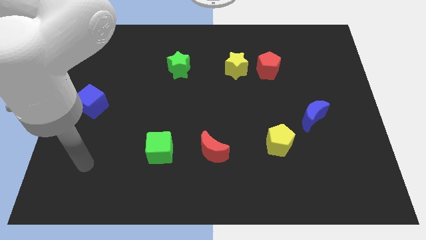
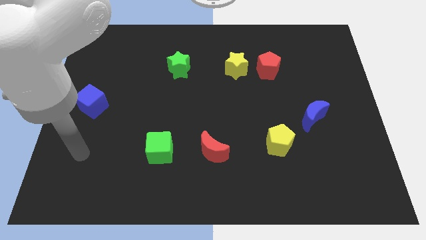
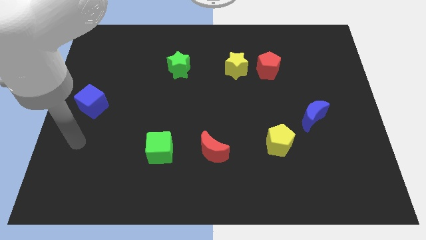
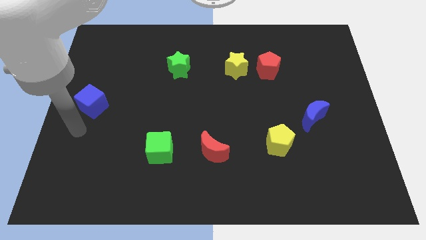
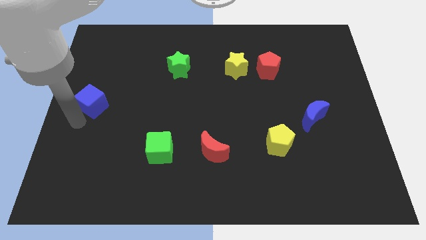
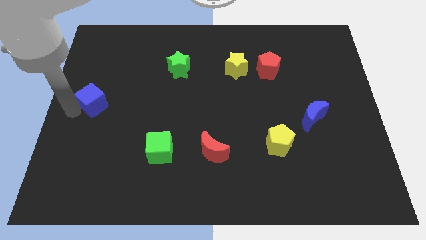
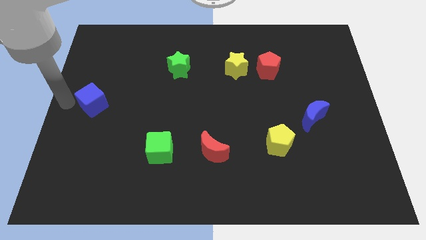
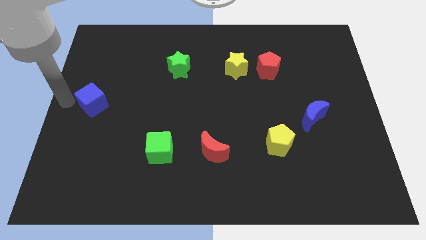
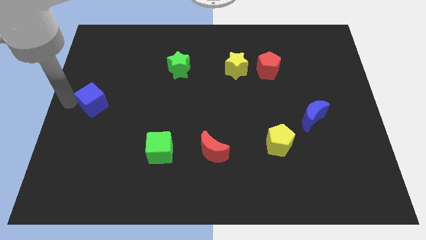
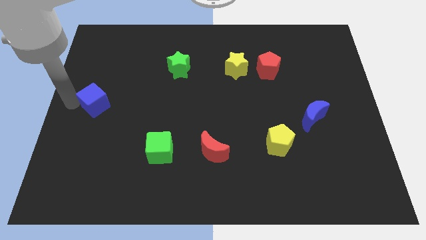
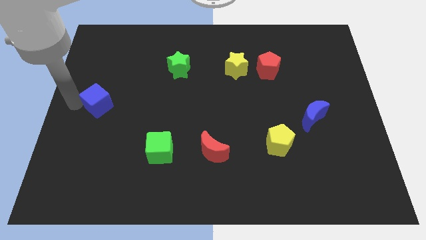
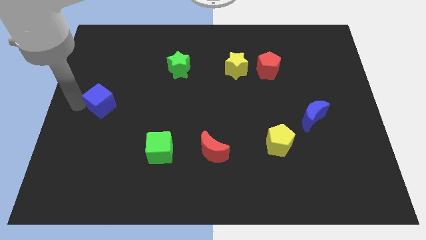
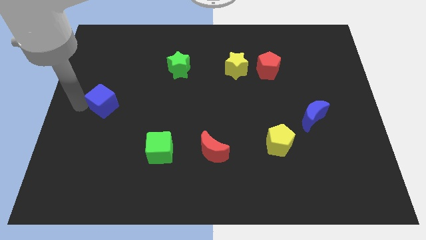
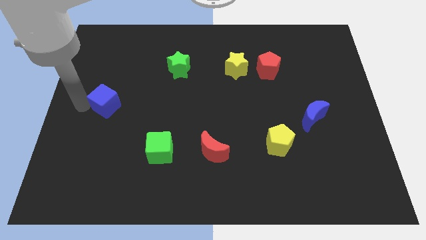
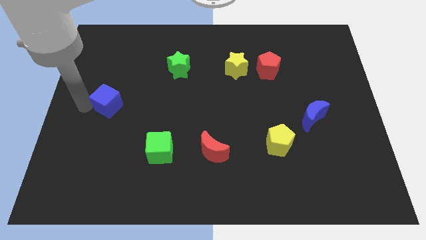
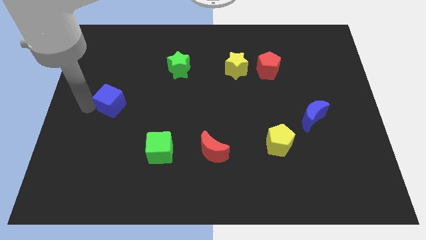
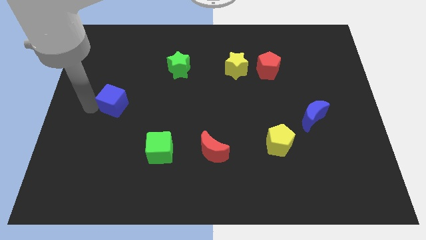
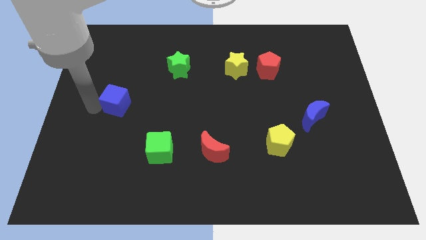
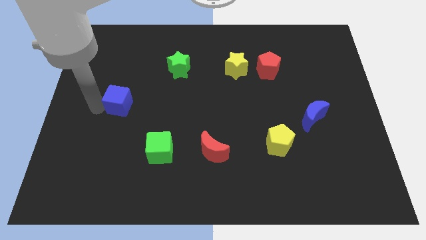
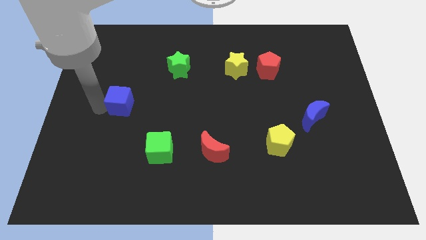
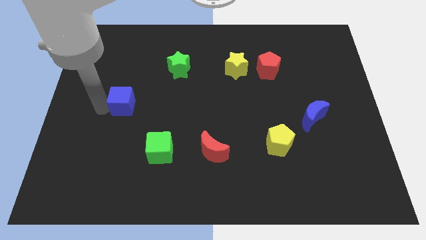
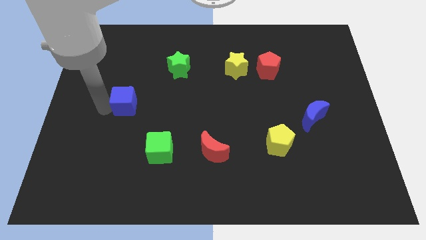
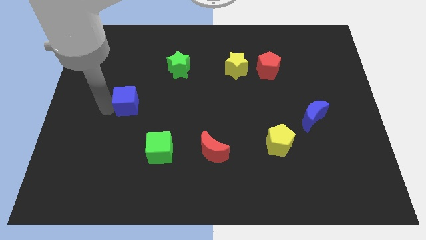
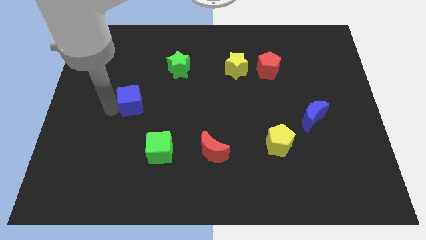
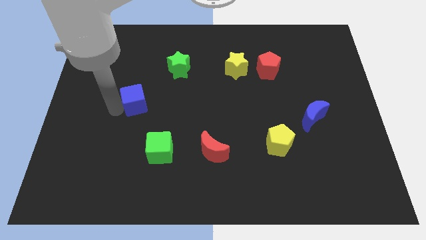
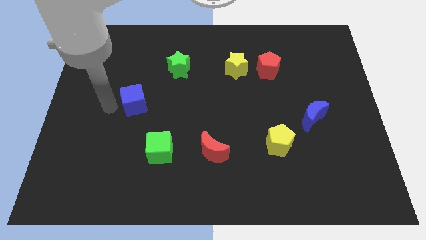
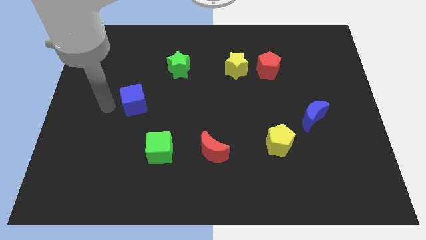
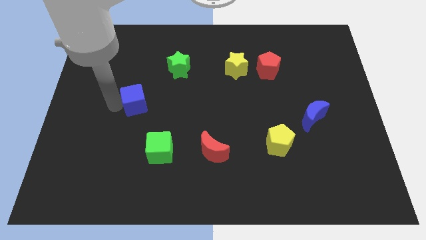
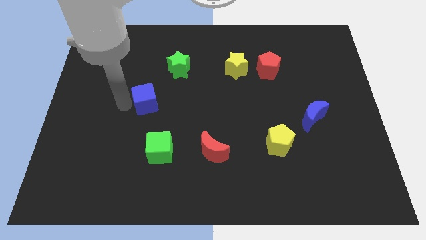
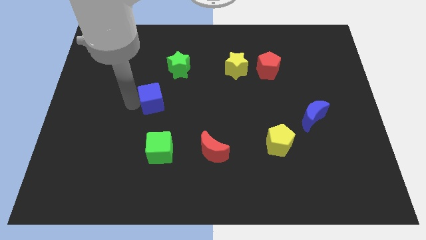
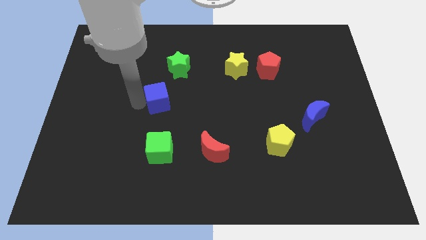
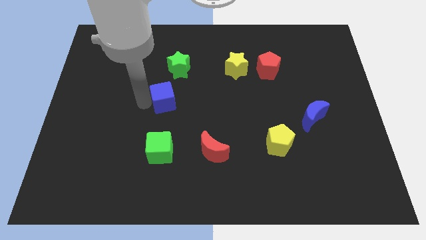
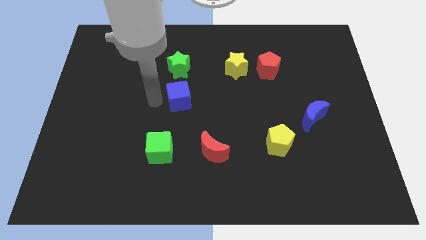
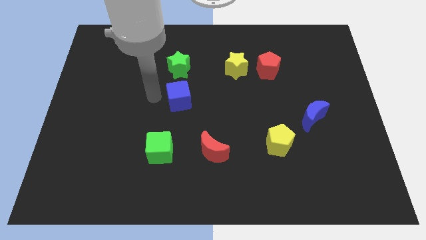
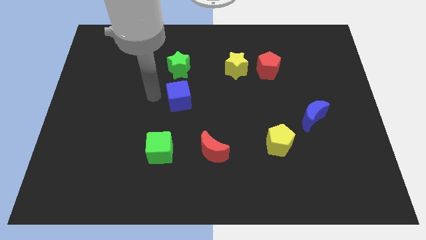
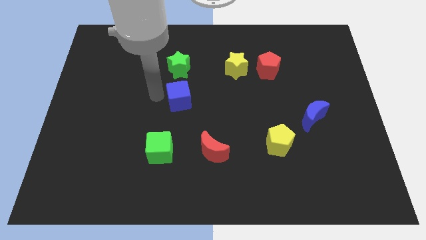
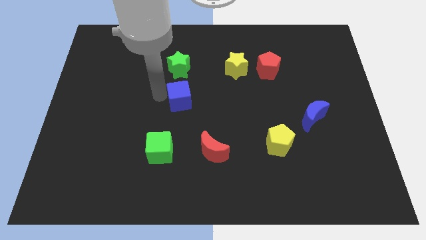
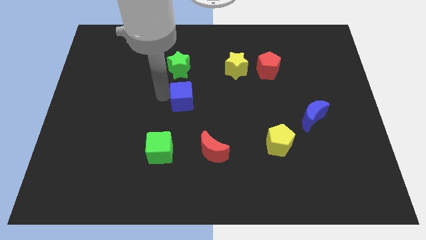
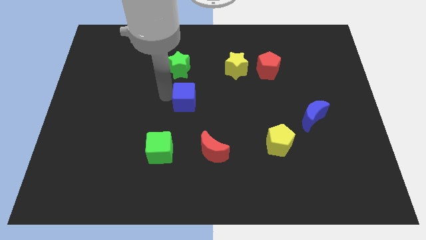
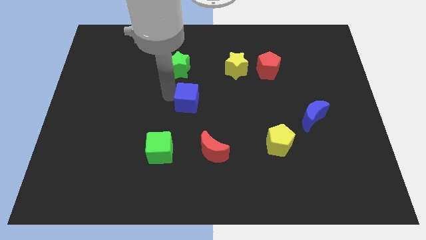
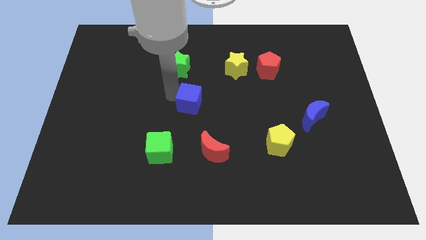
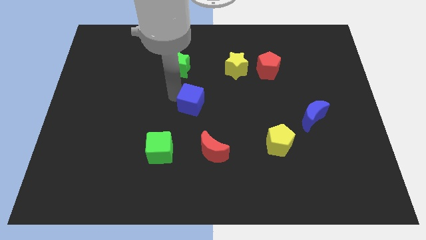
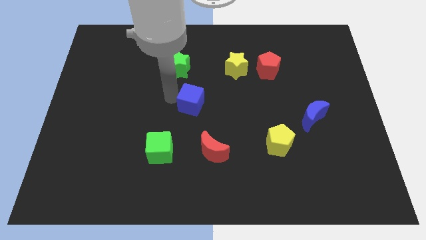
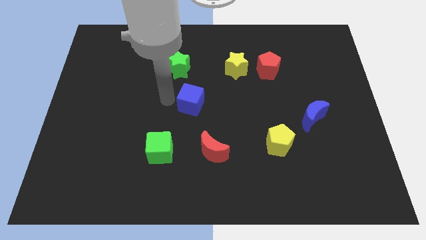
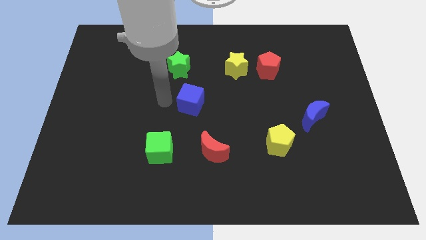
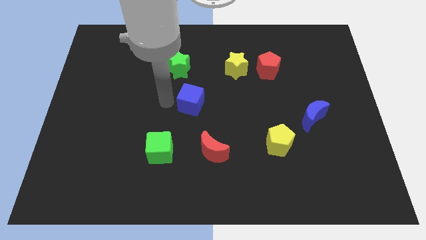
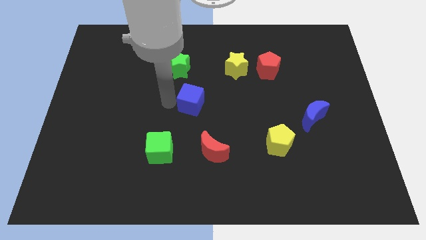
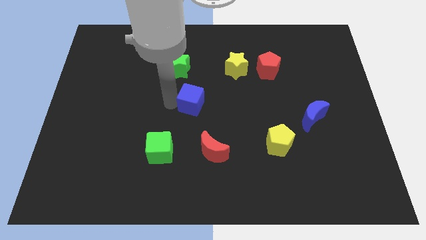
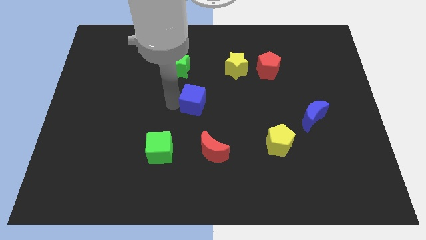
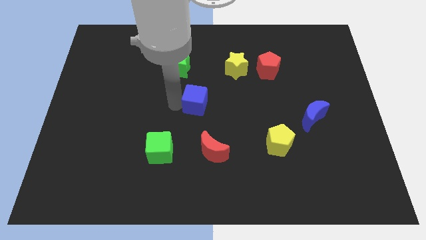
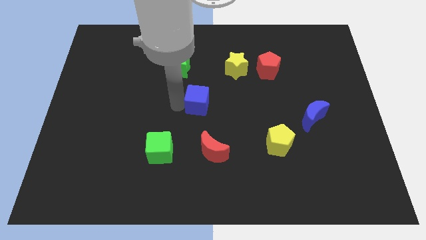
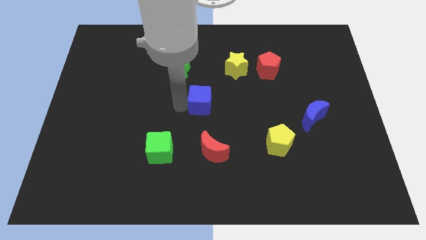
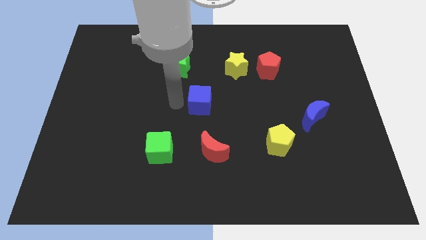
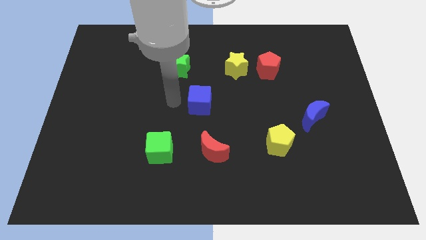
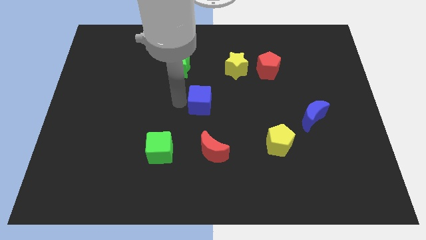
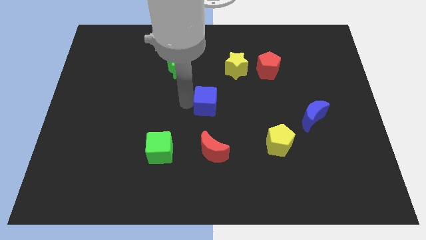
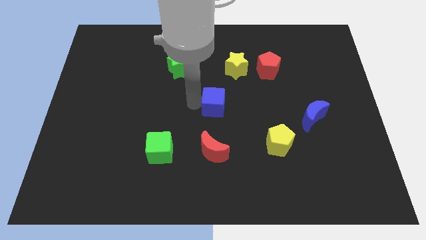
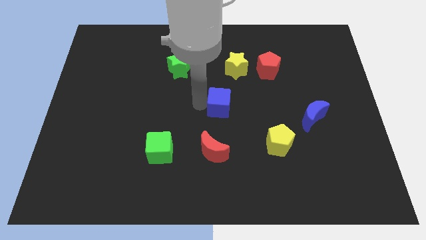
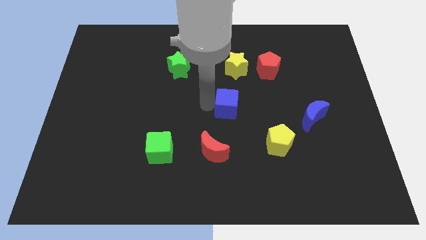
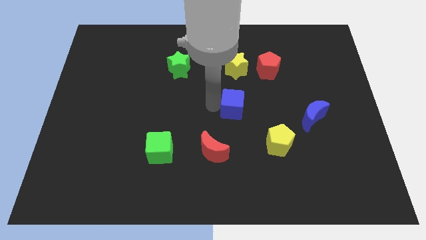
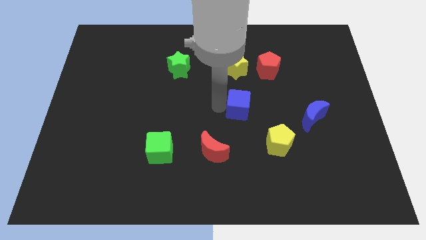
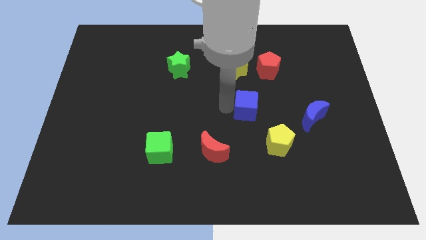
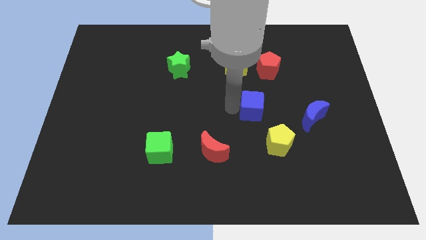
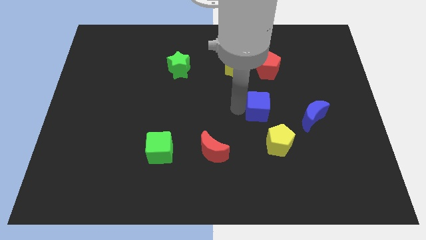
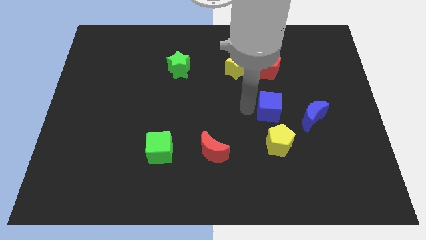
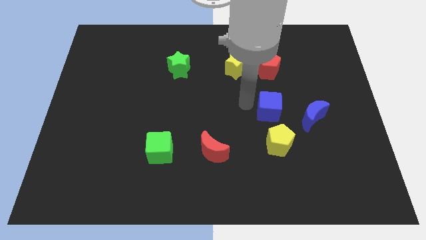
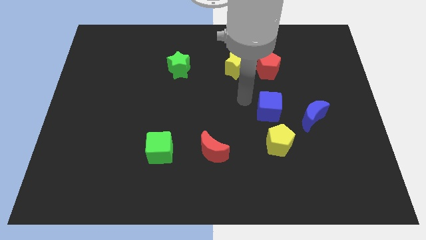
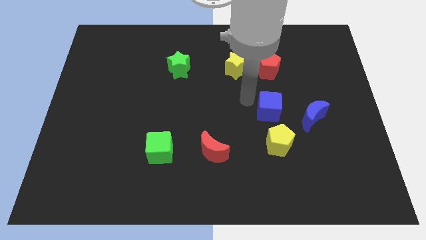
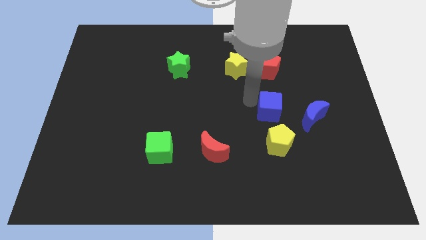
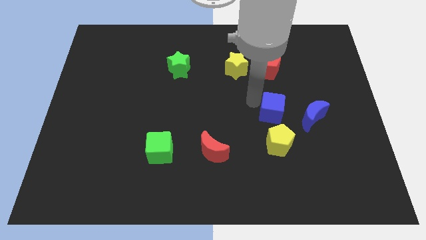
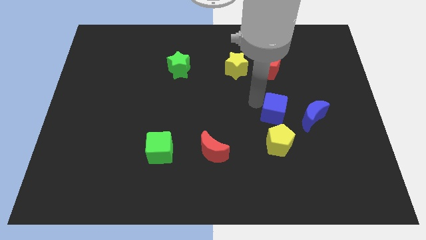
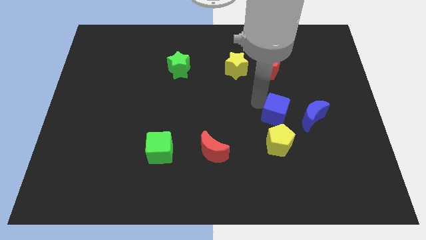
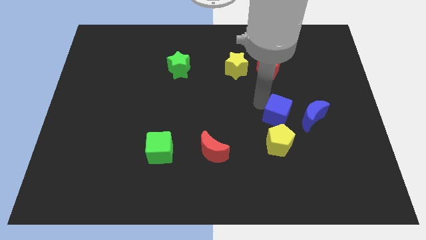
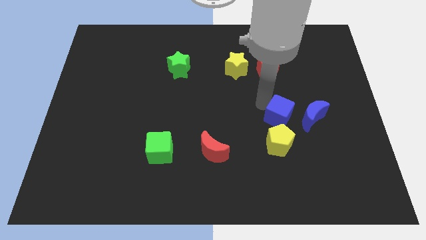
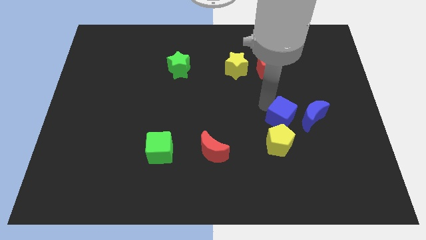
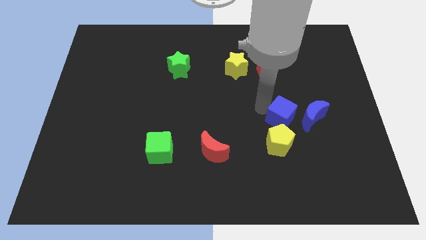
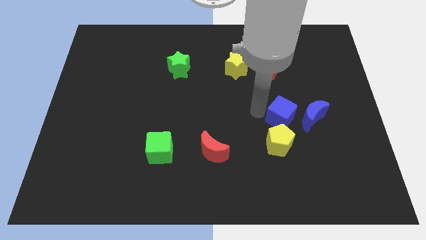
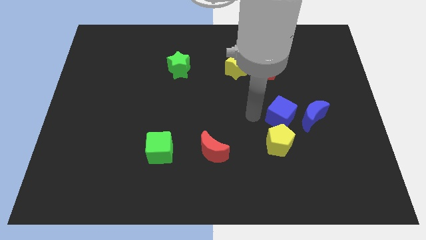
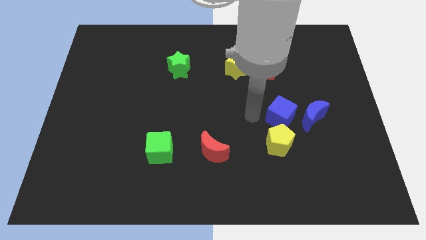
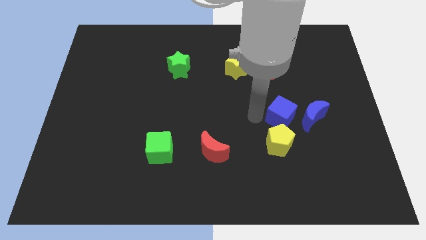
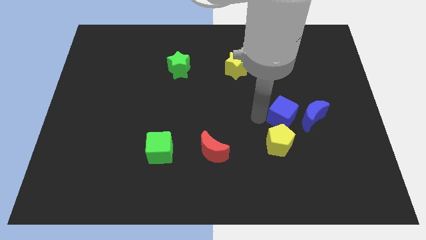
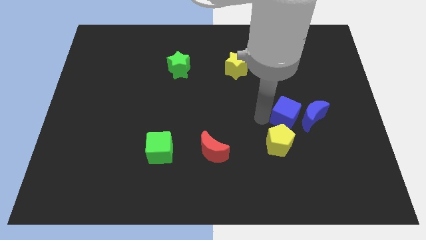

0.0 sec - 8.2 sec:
move the blue cube close to the blue moon

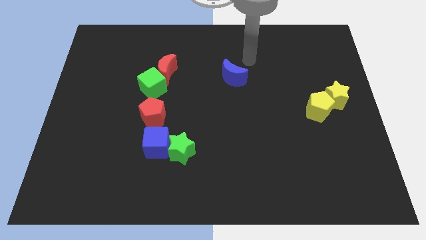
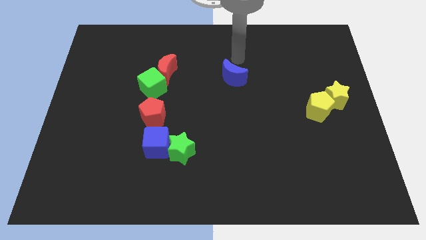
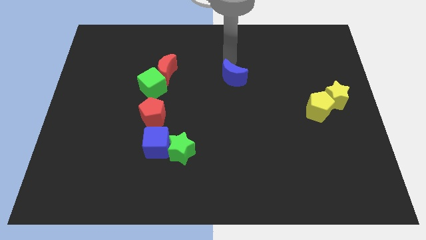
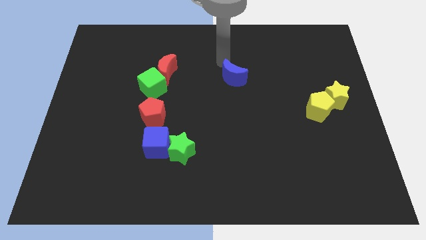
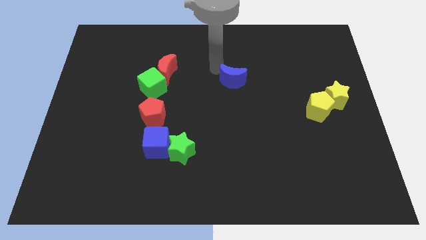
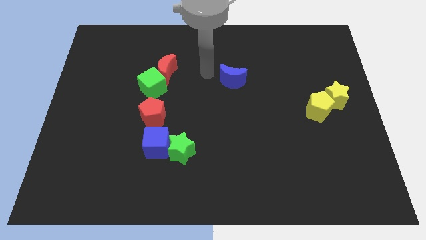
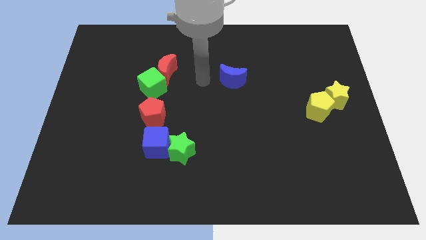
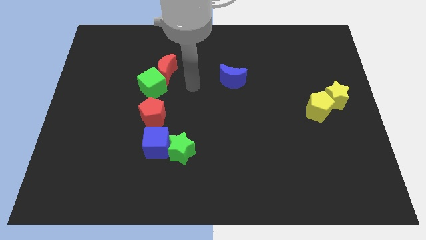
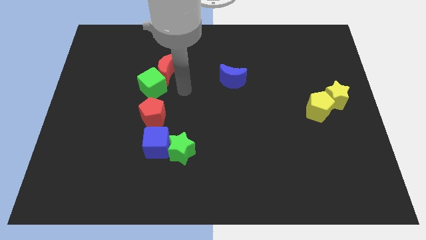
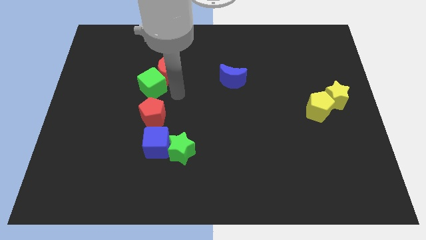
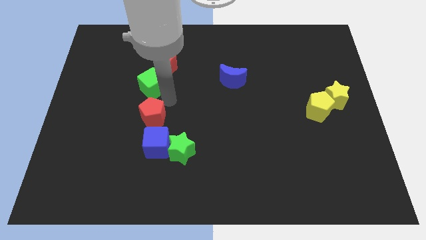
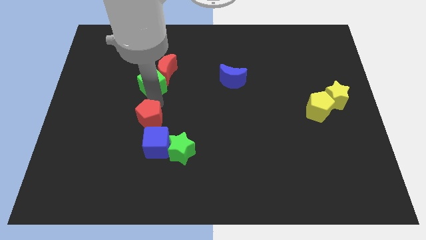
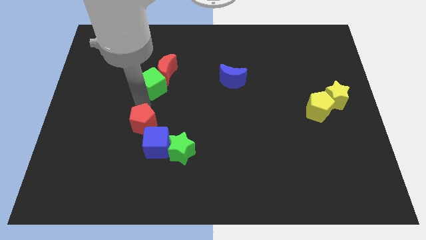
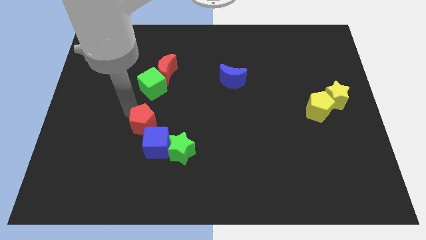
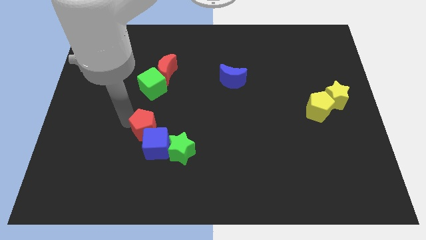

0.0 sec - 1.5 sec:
put the blue cube next to the red pentagon
